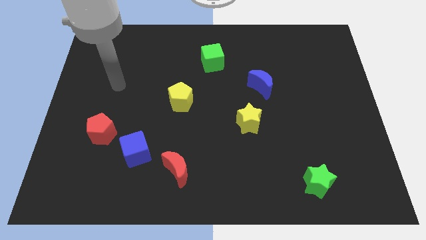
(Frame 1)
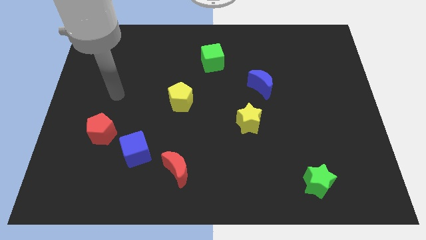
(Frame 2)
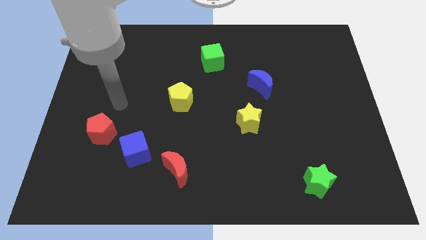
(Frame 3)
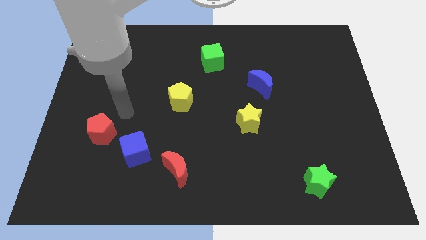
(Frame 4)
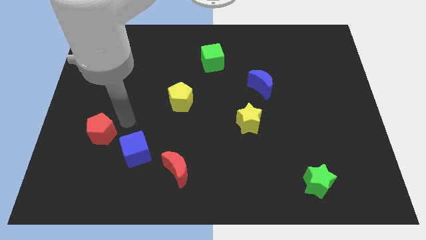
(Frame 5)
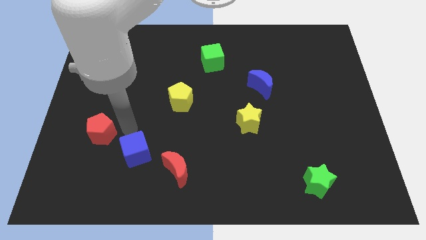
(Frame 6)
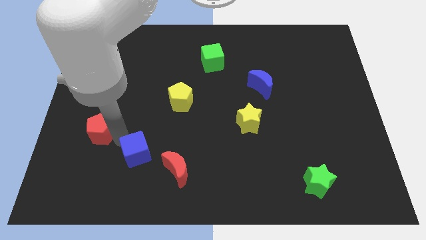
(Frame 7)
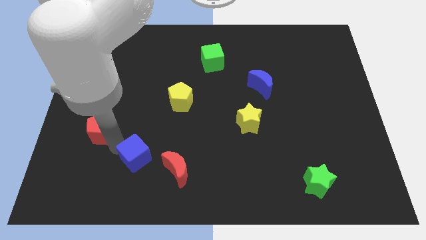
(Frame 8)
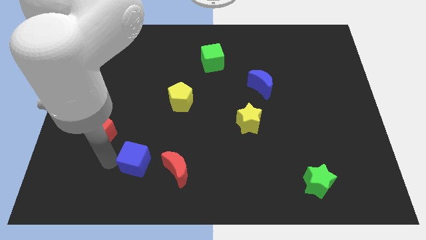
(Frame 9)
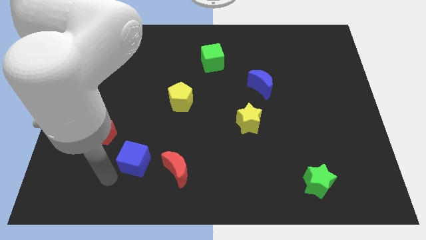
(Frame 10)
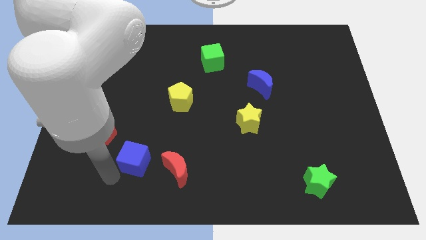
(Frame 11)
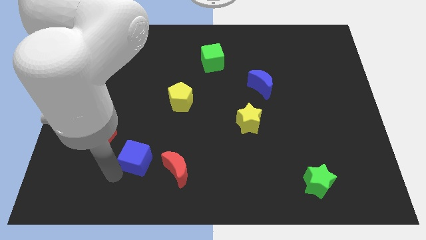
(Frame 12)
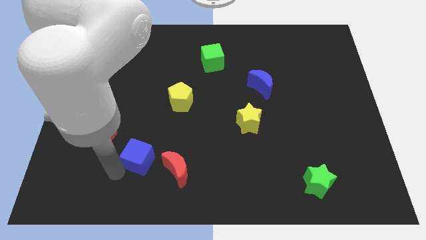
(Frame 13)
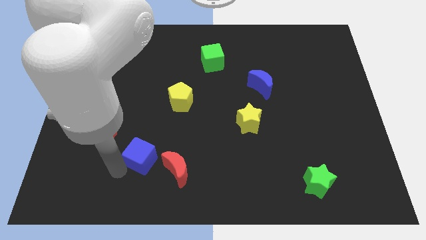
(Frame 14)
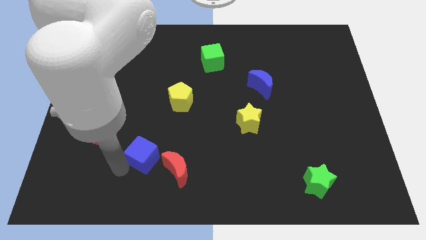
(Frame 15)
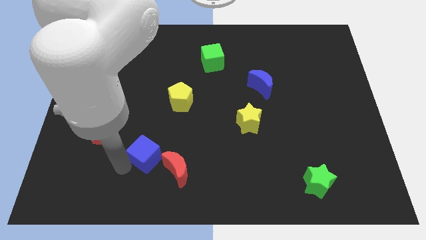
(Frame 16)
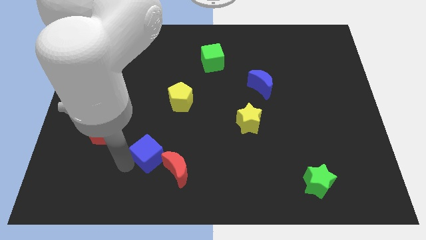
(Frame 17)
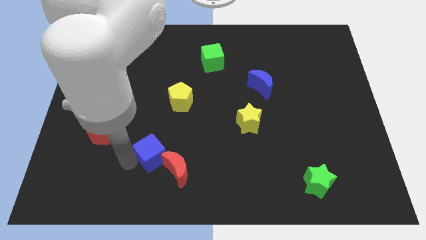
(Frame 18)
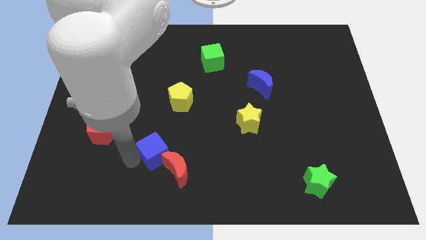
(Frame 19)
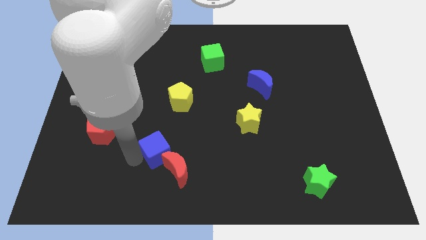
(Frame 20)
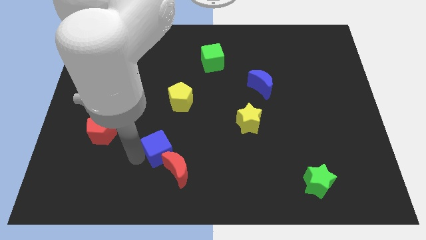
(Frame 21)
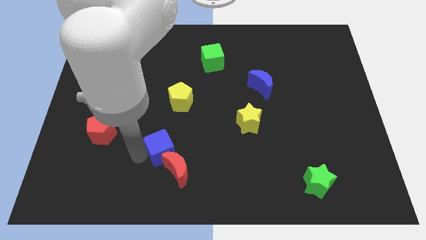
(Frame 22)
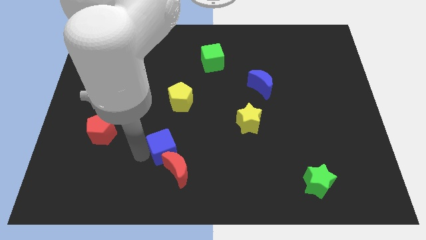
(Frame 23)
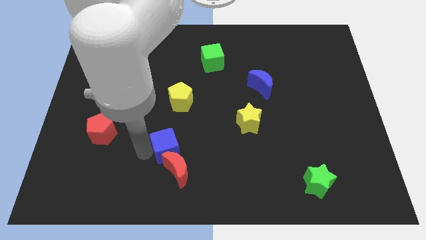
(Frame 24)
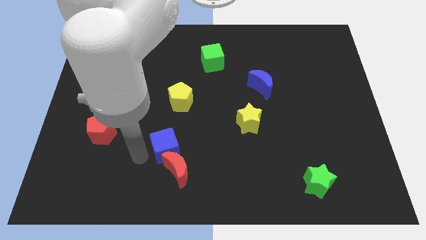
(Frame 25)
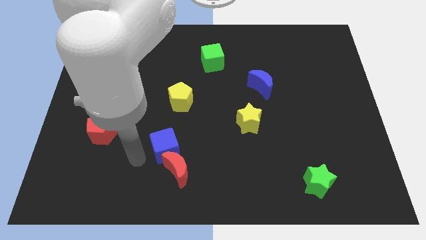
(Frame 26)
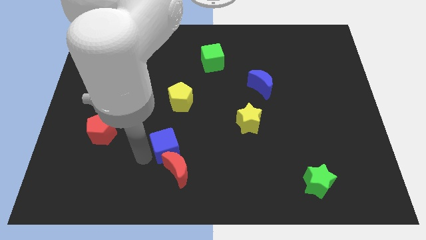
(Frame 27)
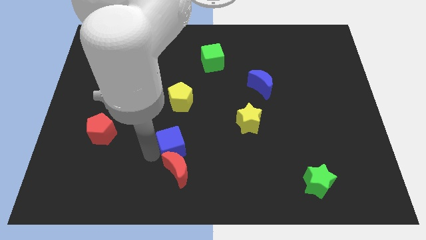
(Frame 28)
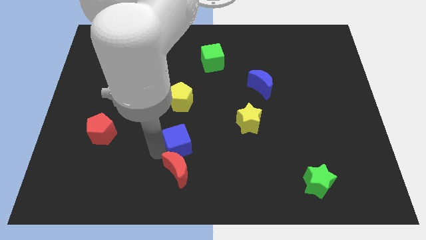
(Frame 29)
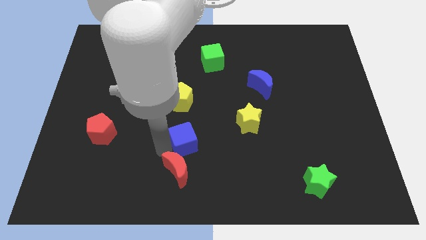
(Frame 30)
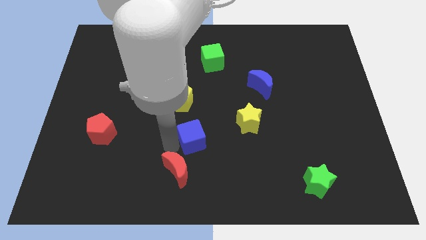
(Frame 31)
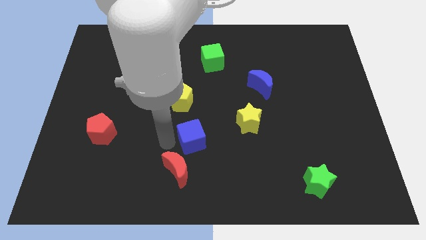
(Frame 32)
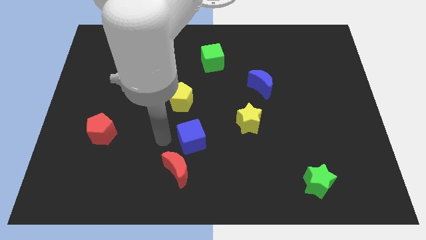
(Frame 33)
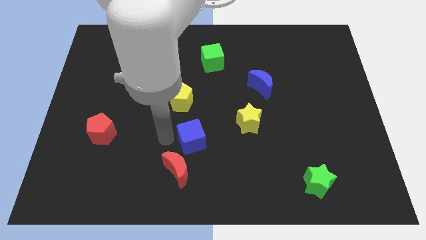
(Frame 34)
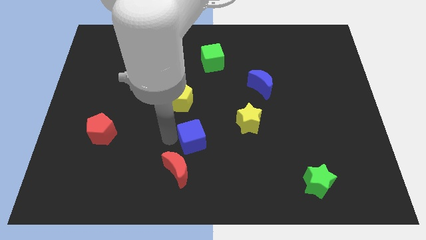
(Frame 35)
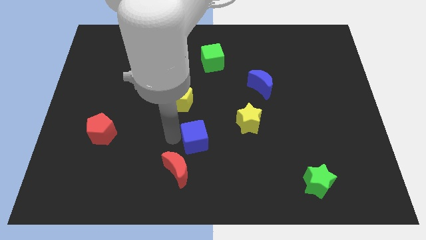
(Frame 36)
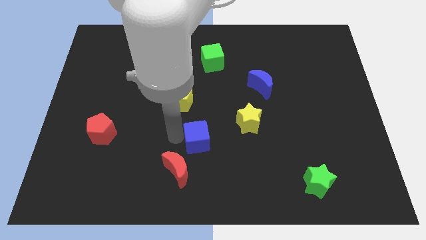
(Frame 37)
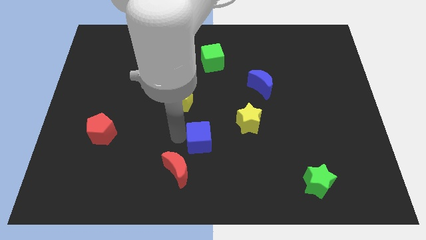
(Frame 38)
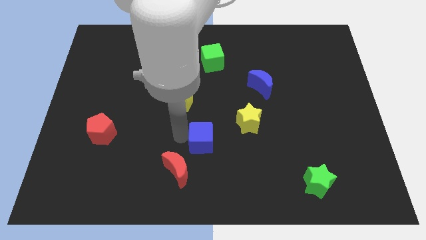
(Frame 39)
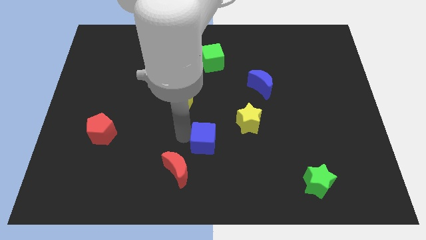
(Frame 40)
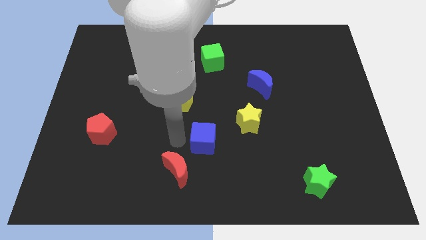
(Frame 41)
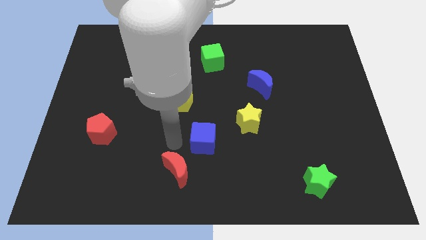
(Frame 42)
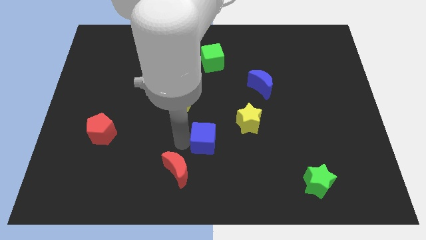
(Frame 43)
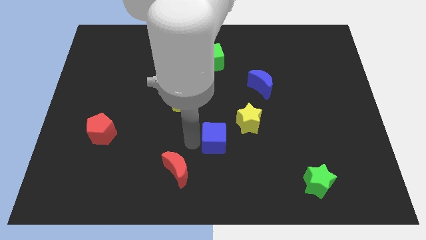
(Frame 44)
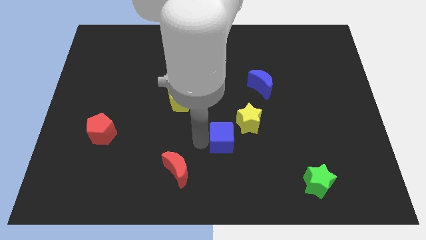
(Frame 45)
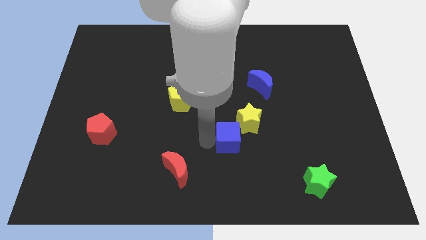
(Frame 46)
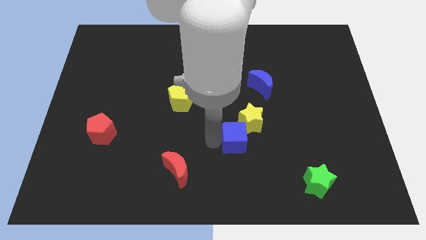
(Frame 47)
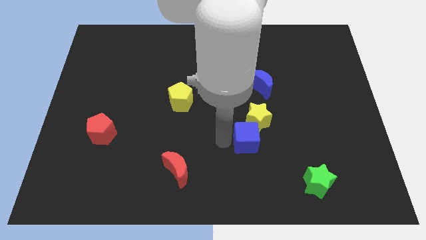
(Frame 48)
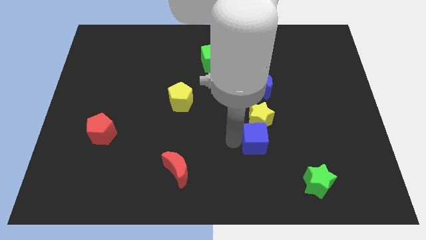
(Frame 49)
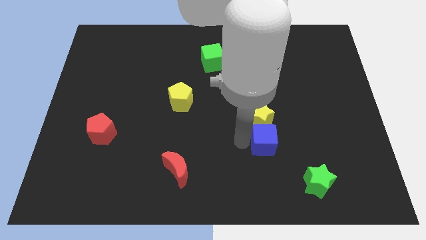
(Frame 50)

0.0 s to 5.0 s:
put the blue cube to the bottom right side of the yellow star

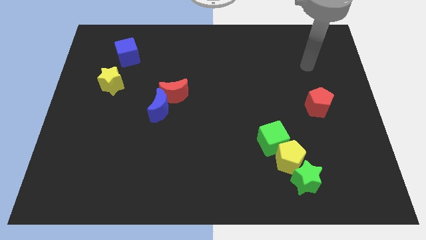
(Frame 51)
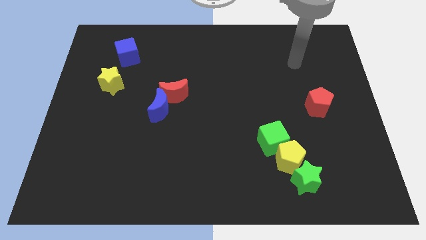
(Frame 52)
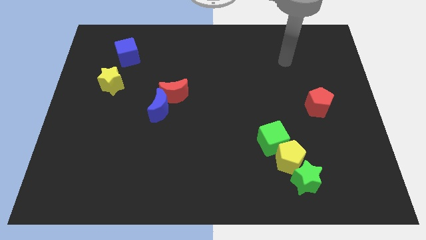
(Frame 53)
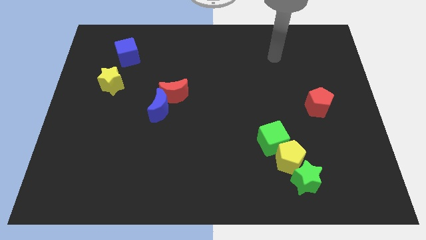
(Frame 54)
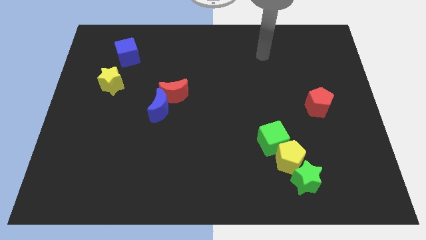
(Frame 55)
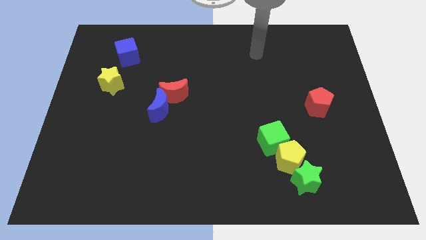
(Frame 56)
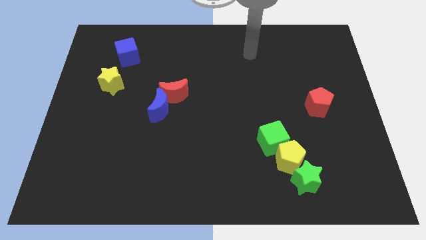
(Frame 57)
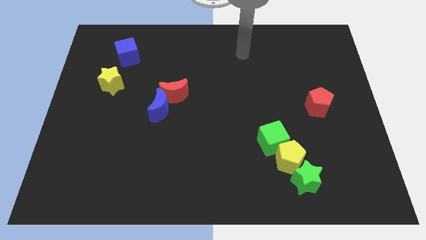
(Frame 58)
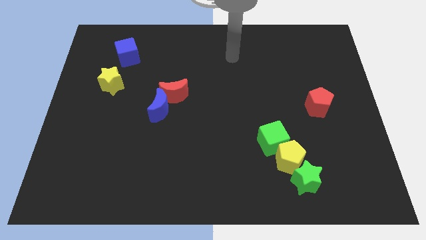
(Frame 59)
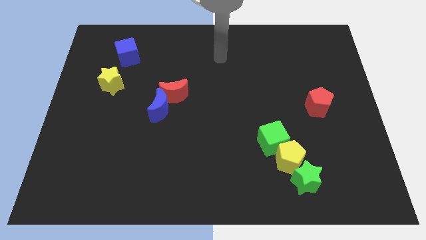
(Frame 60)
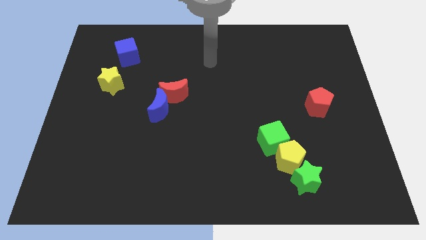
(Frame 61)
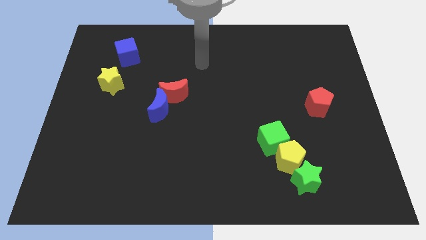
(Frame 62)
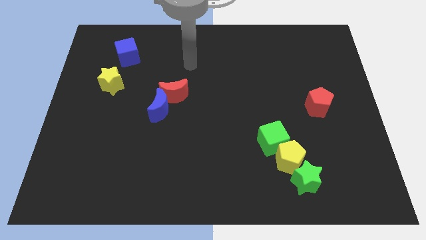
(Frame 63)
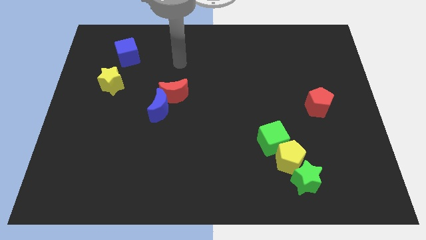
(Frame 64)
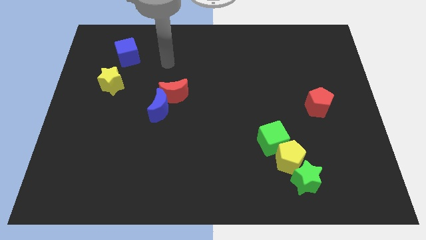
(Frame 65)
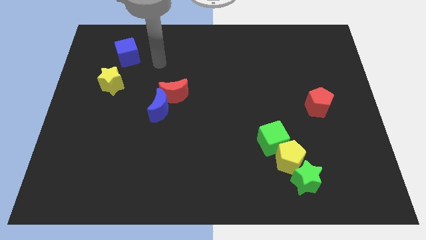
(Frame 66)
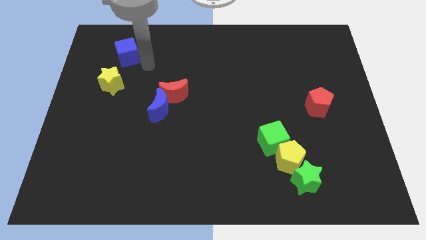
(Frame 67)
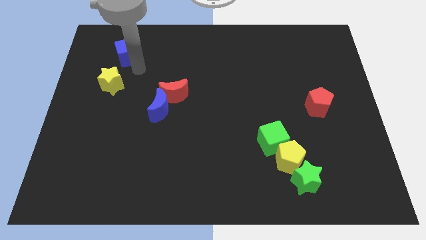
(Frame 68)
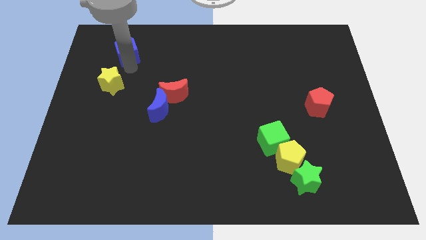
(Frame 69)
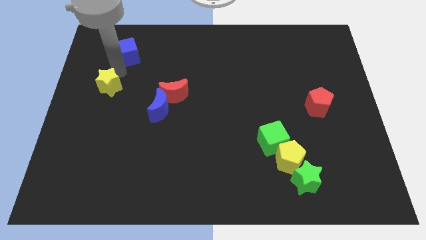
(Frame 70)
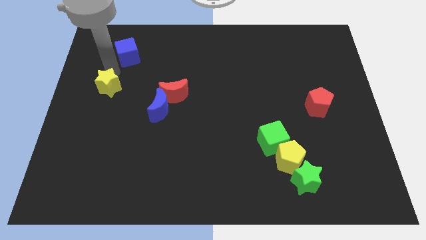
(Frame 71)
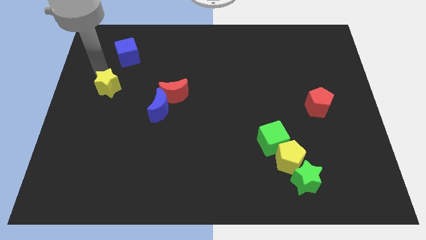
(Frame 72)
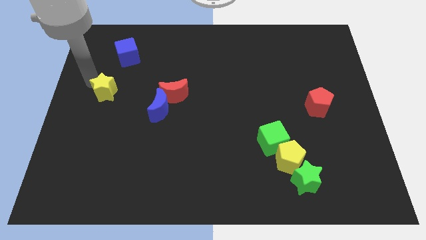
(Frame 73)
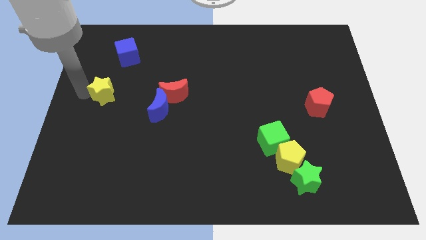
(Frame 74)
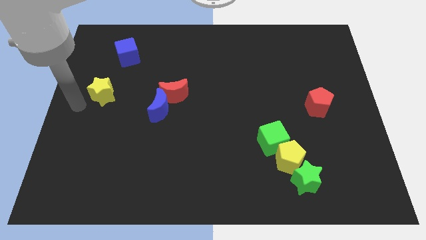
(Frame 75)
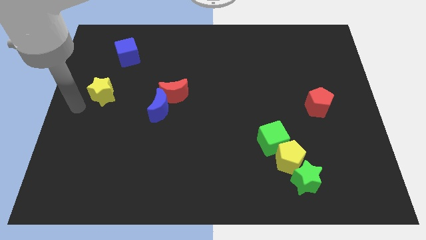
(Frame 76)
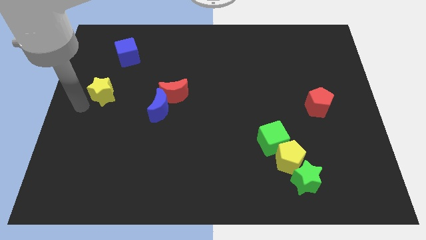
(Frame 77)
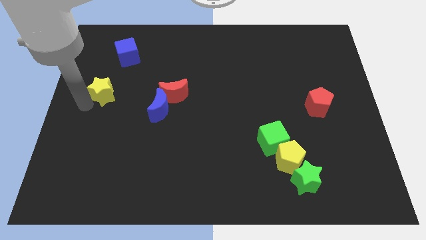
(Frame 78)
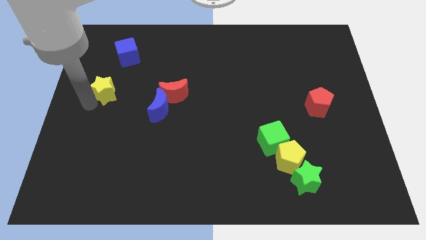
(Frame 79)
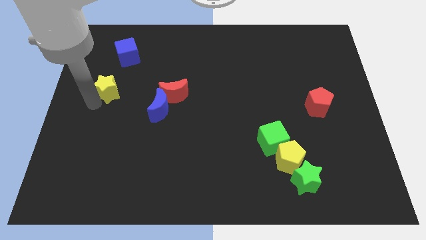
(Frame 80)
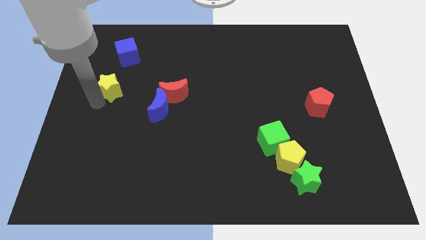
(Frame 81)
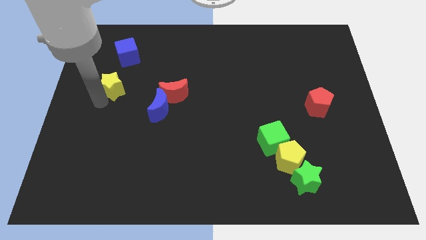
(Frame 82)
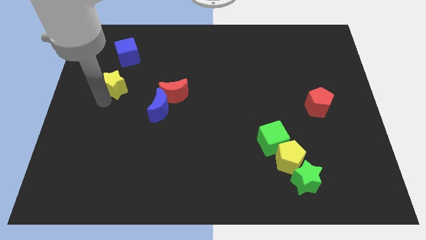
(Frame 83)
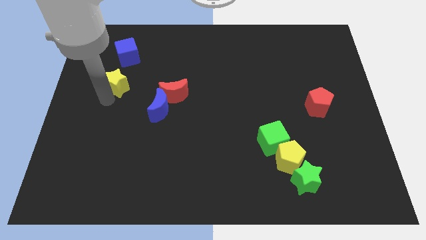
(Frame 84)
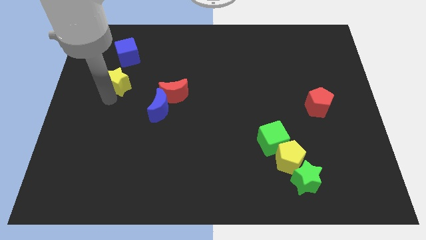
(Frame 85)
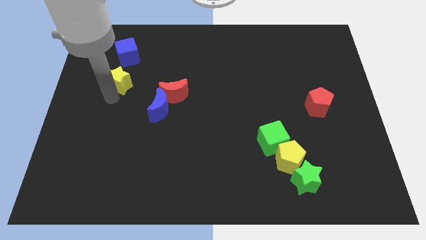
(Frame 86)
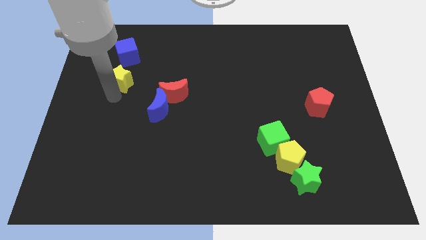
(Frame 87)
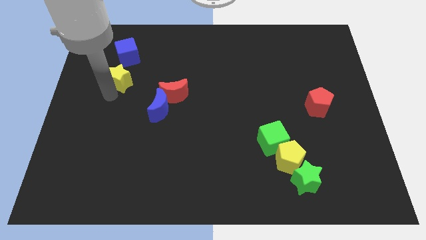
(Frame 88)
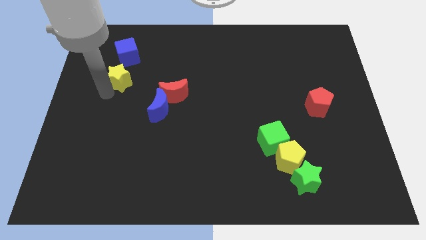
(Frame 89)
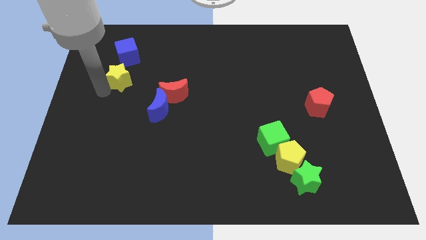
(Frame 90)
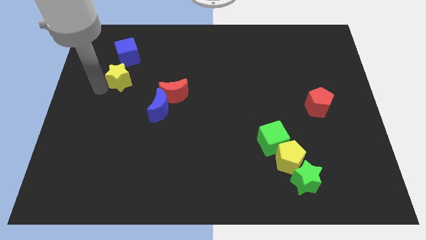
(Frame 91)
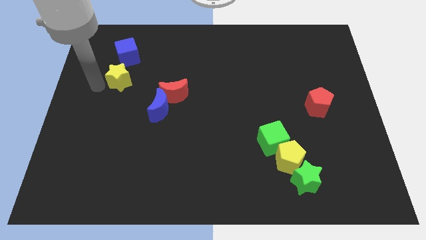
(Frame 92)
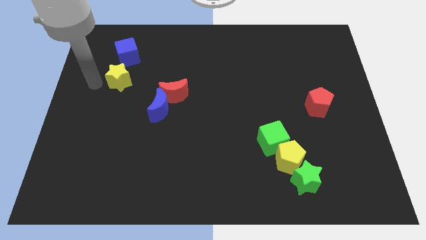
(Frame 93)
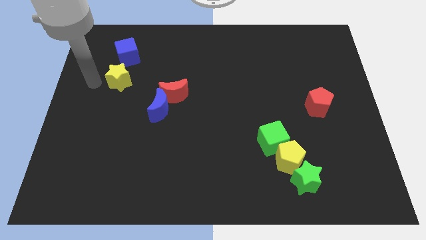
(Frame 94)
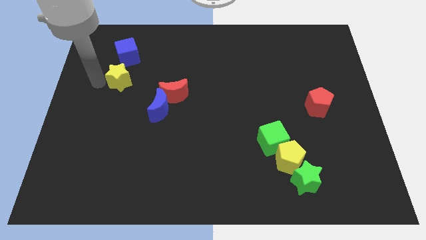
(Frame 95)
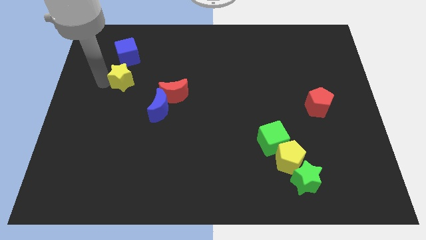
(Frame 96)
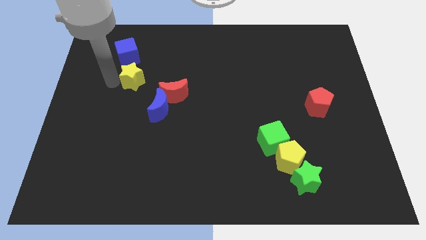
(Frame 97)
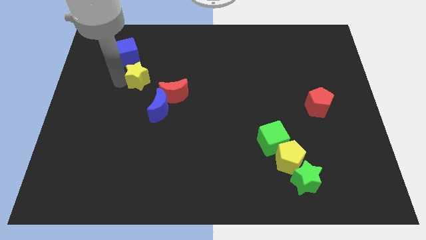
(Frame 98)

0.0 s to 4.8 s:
push the yellow star to the top left side of the red moon
